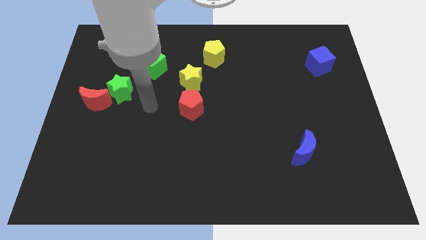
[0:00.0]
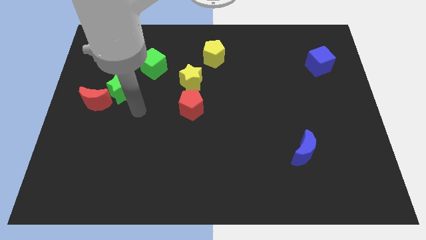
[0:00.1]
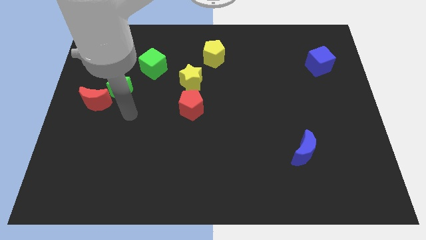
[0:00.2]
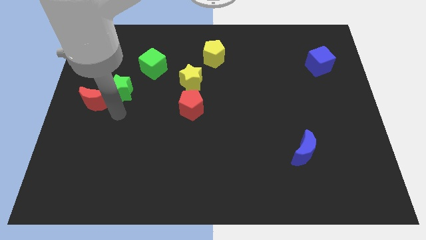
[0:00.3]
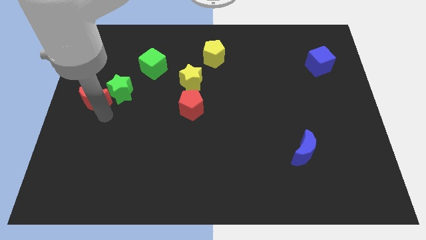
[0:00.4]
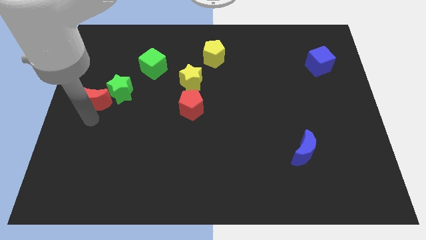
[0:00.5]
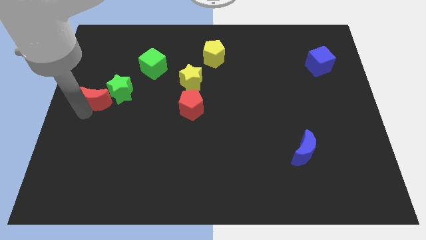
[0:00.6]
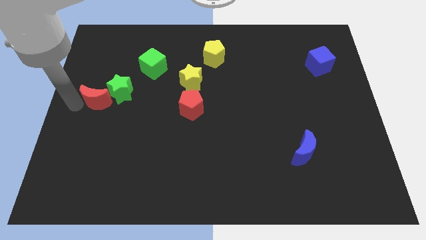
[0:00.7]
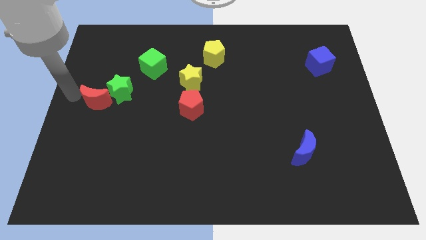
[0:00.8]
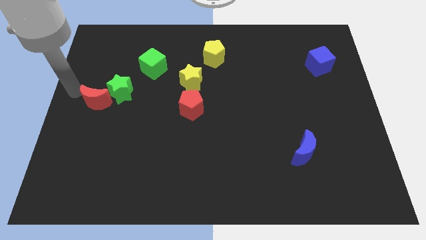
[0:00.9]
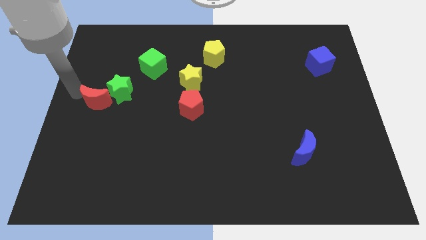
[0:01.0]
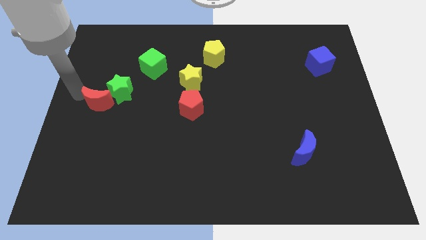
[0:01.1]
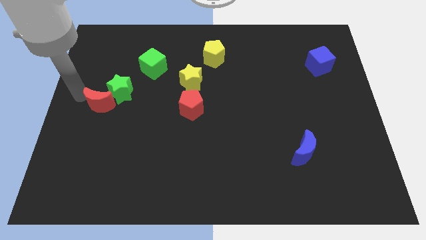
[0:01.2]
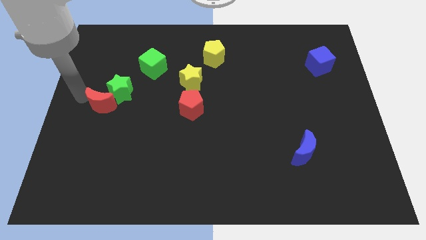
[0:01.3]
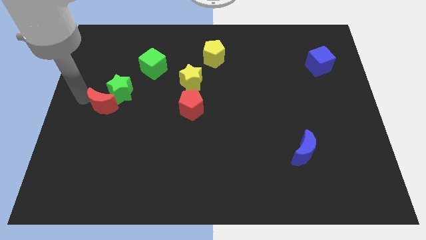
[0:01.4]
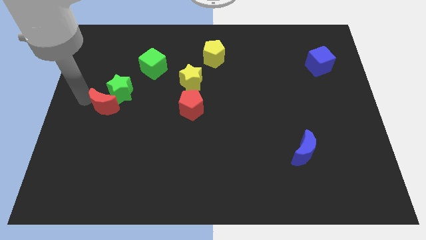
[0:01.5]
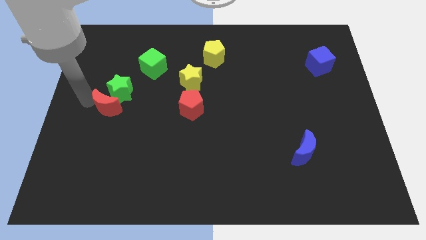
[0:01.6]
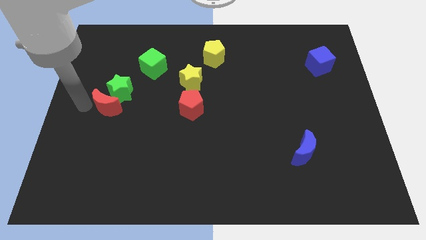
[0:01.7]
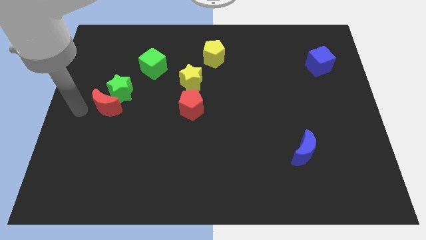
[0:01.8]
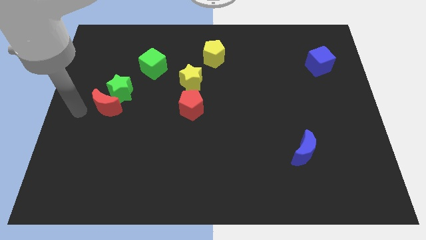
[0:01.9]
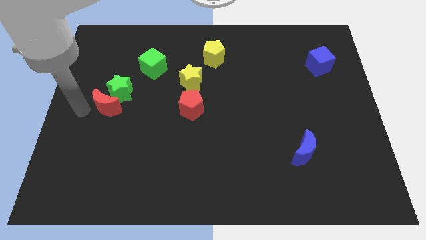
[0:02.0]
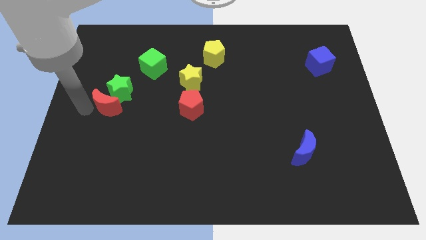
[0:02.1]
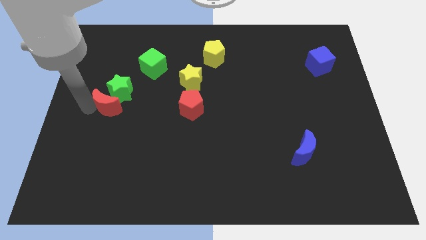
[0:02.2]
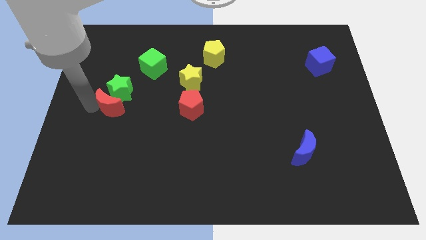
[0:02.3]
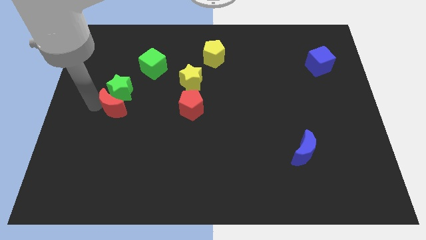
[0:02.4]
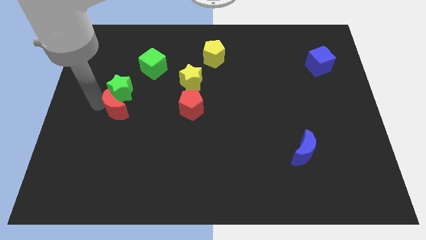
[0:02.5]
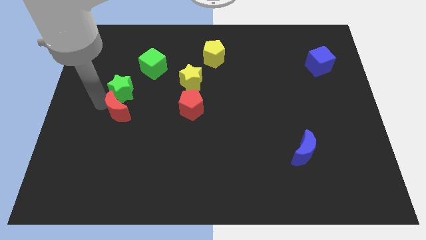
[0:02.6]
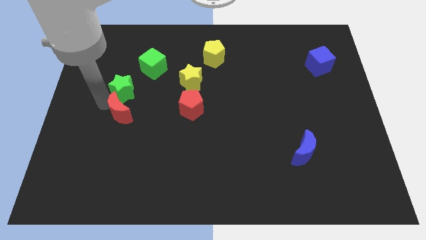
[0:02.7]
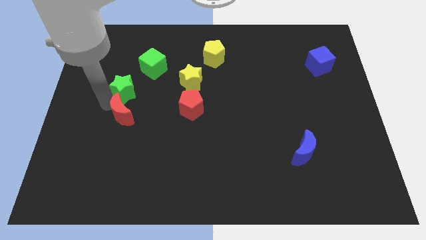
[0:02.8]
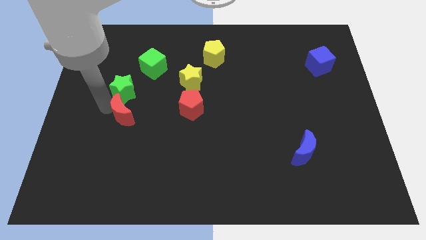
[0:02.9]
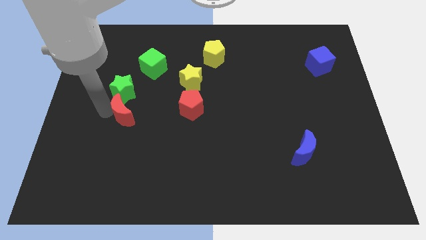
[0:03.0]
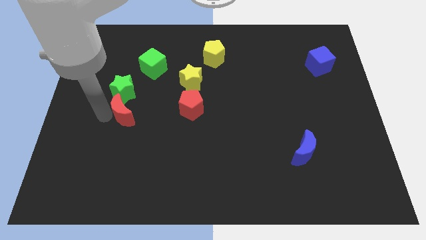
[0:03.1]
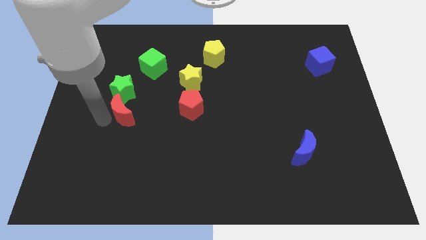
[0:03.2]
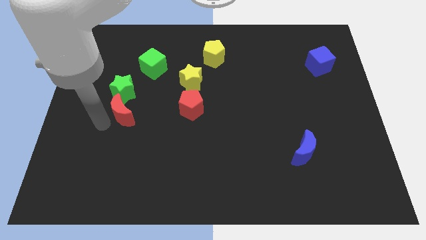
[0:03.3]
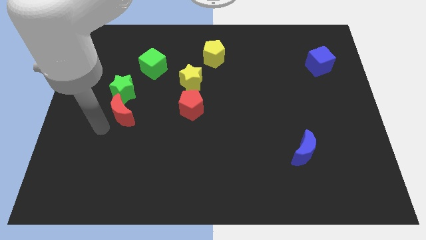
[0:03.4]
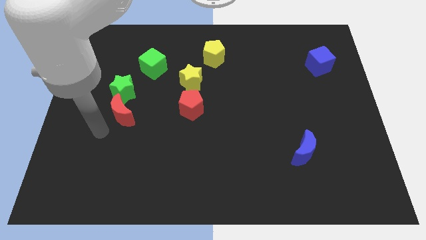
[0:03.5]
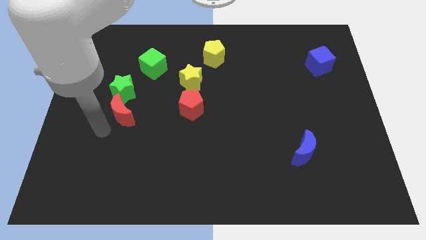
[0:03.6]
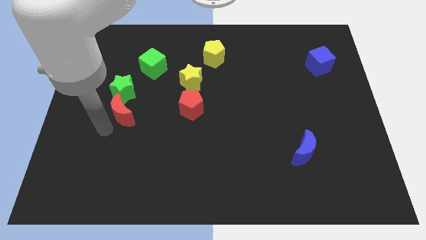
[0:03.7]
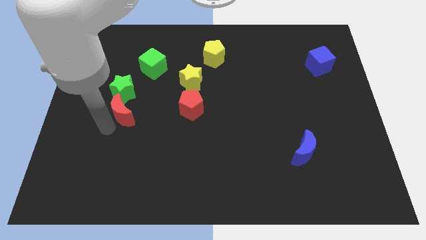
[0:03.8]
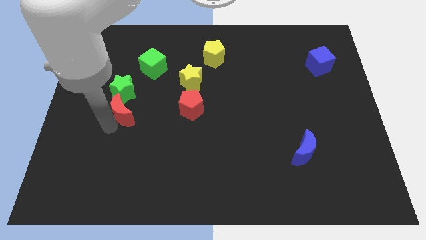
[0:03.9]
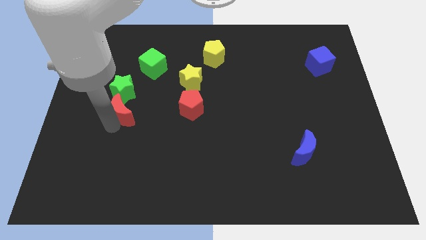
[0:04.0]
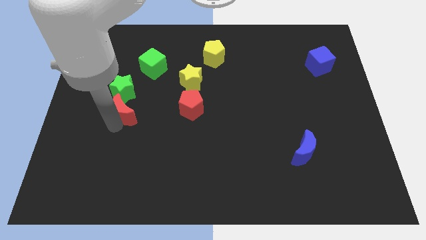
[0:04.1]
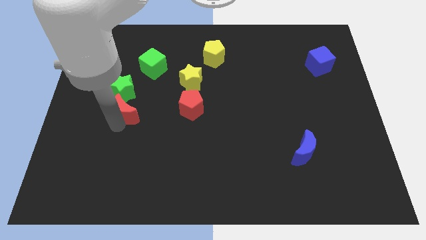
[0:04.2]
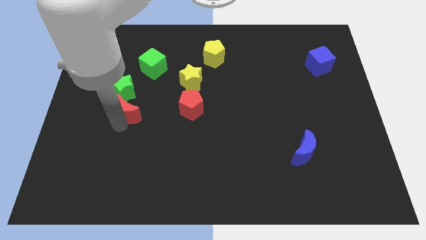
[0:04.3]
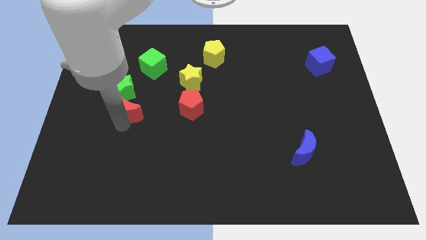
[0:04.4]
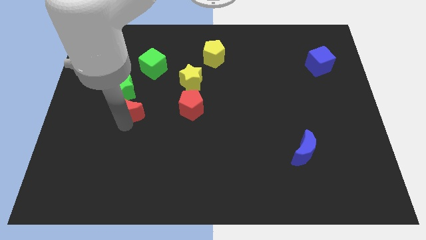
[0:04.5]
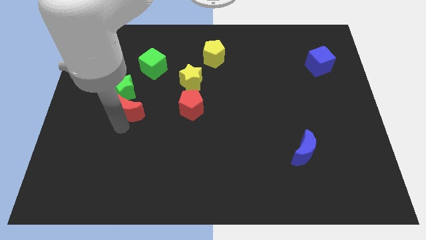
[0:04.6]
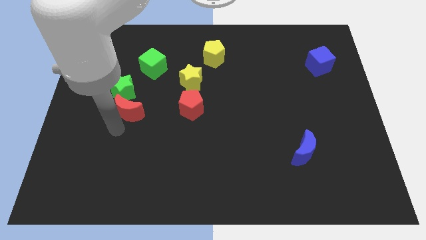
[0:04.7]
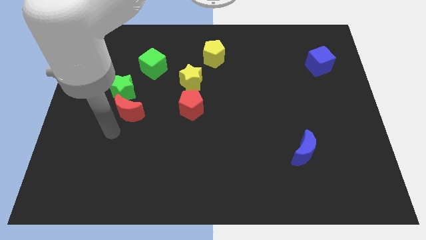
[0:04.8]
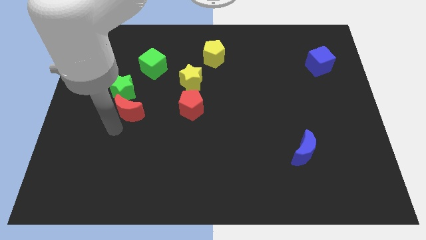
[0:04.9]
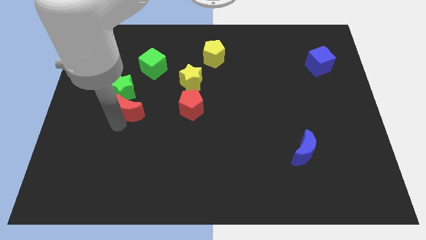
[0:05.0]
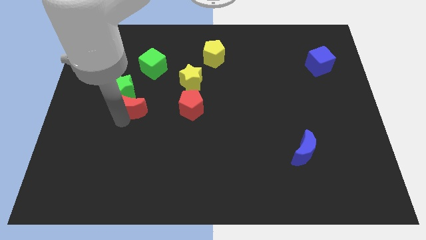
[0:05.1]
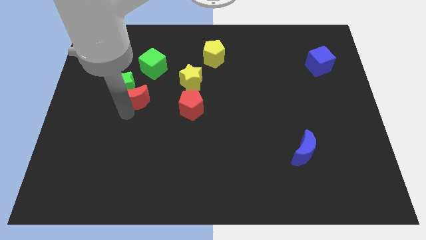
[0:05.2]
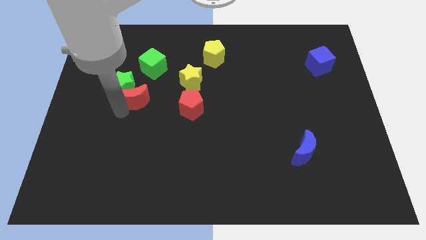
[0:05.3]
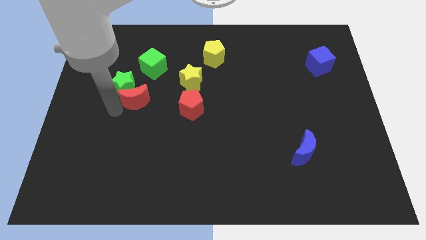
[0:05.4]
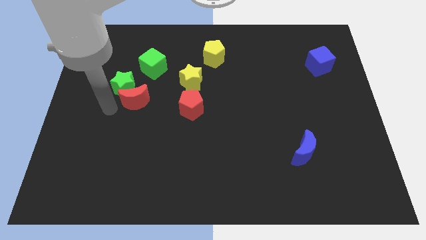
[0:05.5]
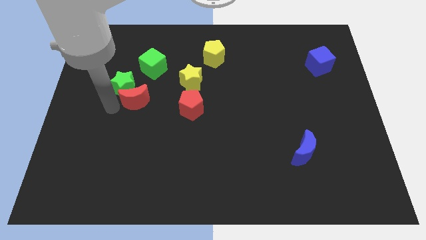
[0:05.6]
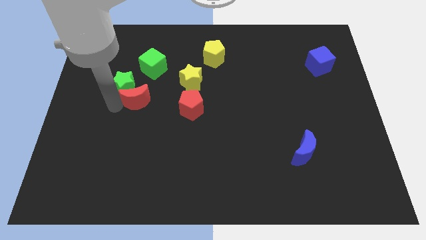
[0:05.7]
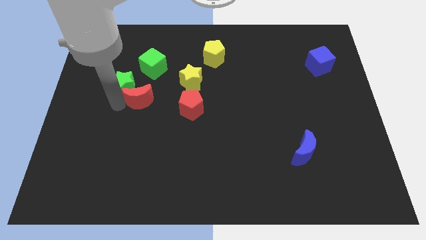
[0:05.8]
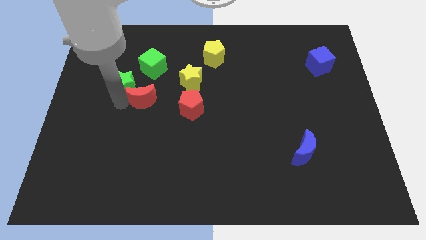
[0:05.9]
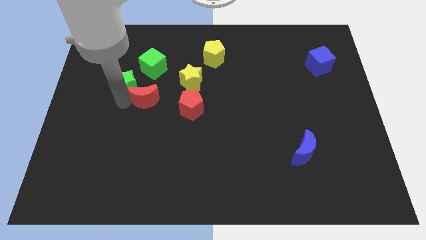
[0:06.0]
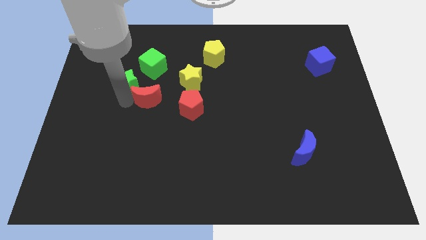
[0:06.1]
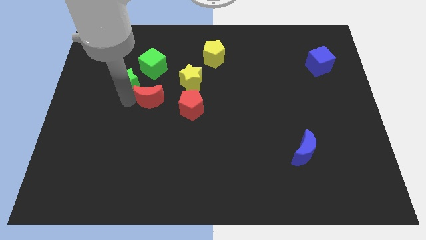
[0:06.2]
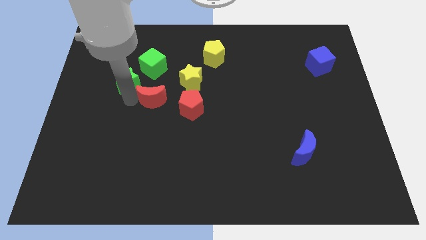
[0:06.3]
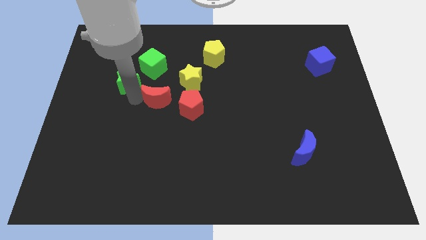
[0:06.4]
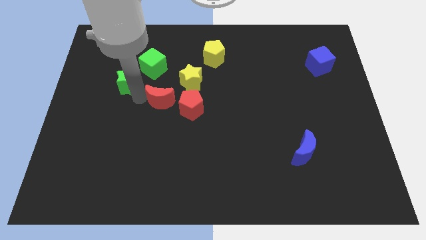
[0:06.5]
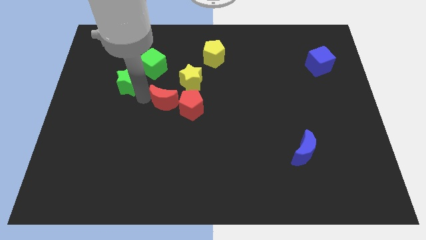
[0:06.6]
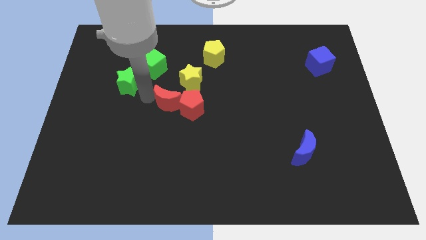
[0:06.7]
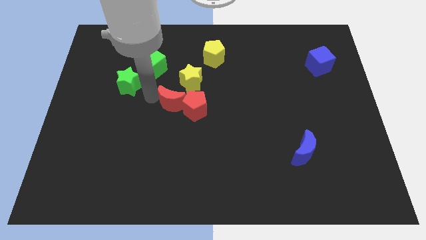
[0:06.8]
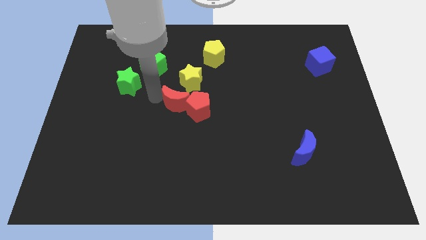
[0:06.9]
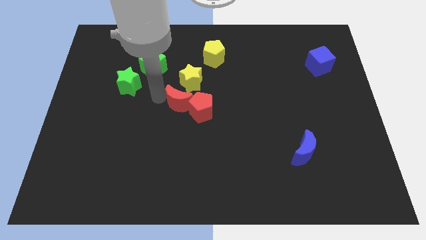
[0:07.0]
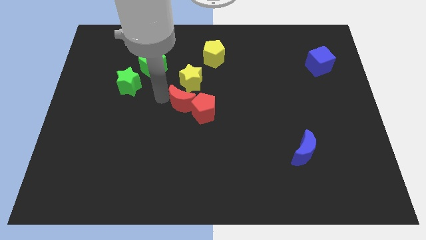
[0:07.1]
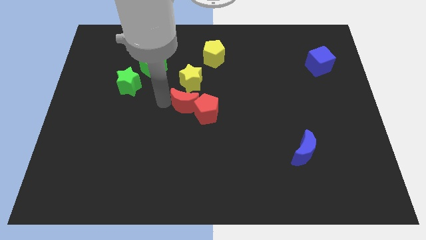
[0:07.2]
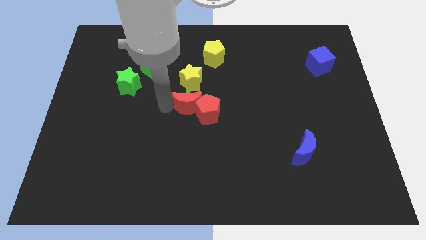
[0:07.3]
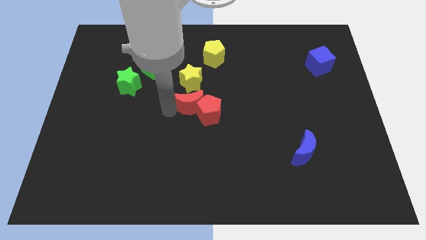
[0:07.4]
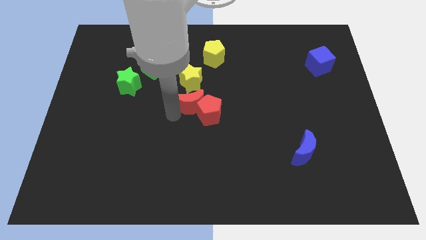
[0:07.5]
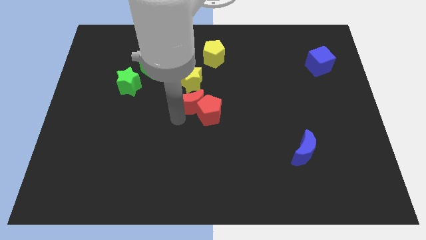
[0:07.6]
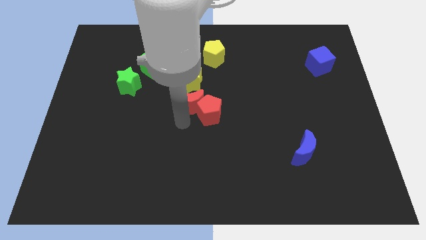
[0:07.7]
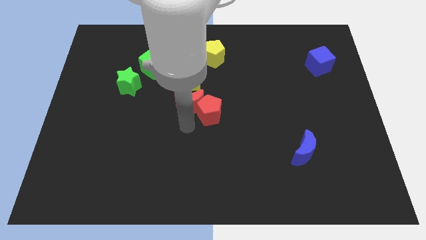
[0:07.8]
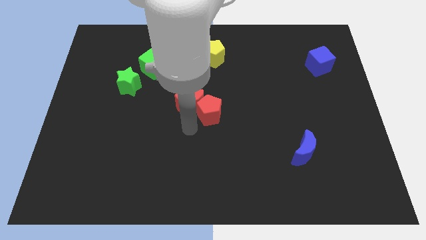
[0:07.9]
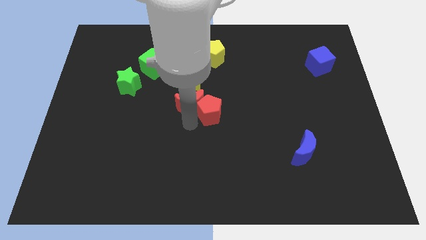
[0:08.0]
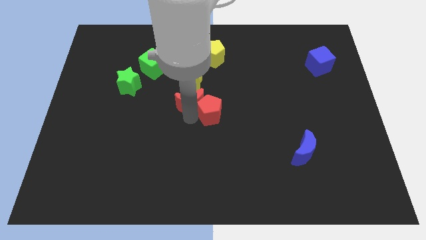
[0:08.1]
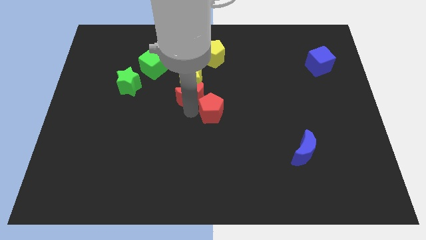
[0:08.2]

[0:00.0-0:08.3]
push the red moon towards the yellow star
